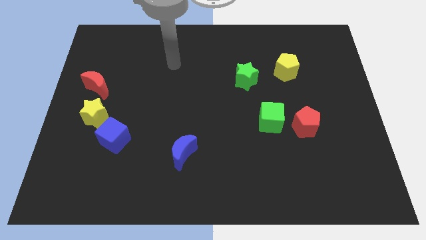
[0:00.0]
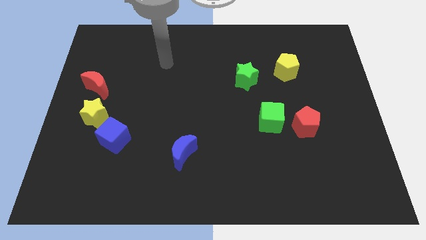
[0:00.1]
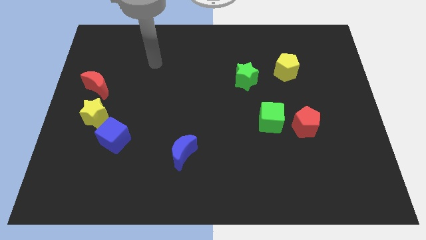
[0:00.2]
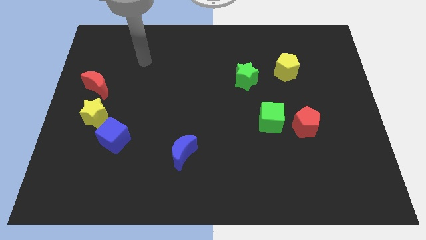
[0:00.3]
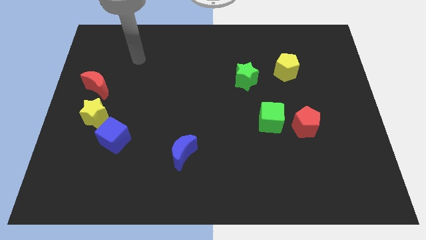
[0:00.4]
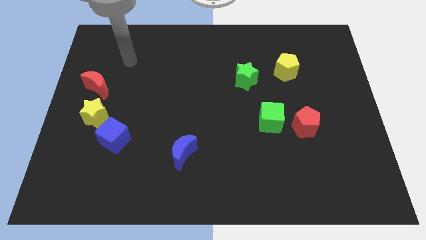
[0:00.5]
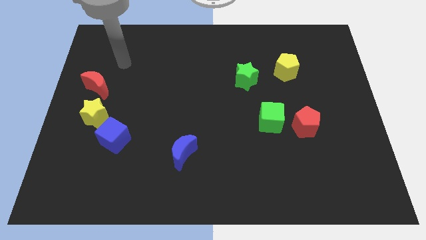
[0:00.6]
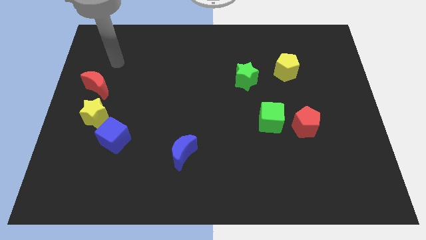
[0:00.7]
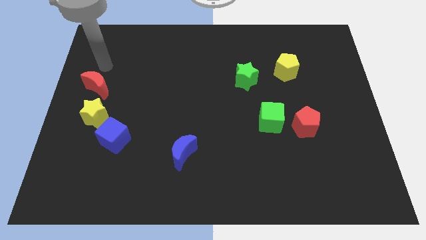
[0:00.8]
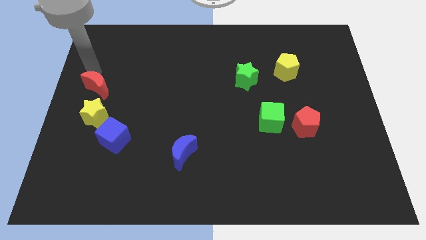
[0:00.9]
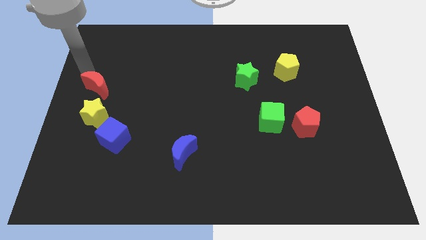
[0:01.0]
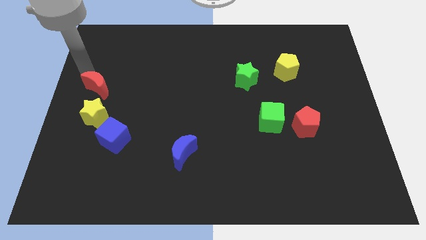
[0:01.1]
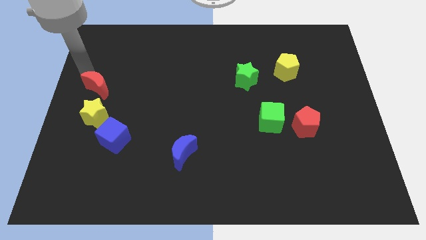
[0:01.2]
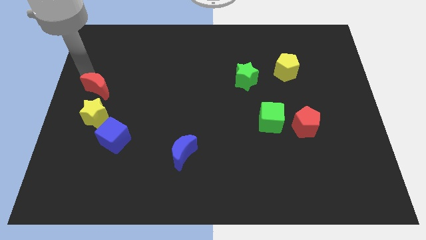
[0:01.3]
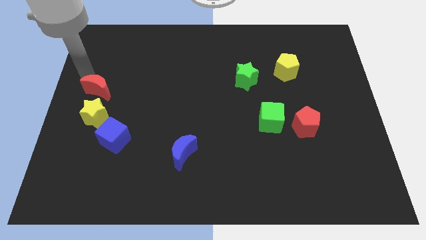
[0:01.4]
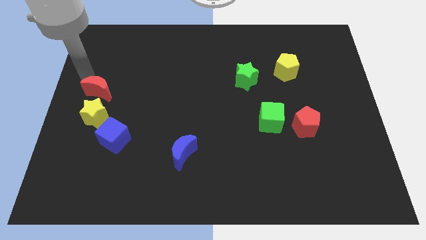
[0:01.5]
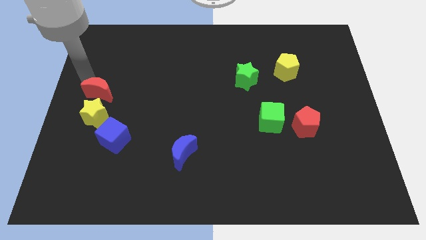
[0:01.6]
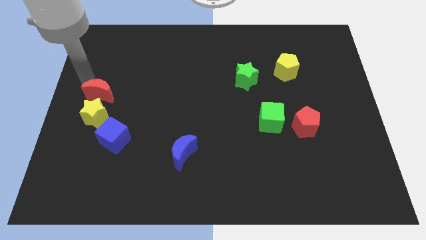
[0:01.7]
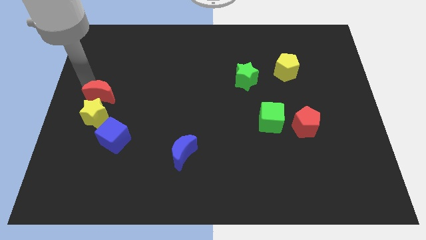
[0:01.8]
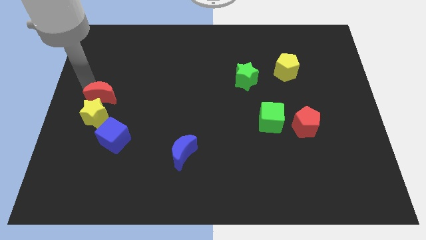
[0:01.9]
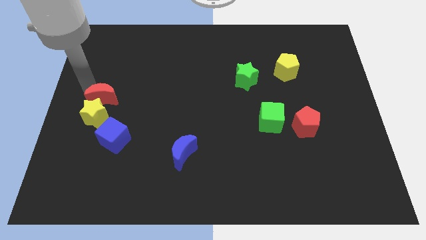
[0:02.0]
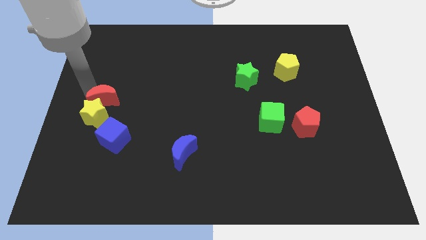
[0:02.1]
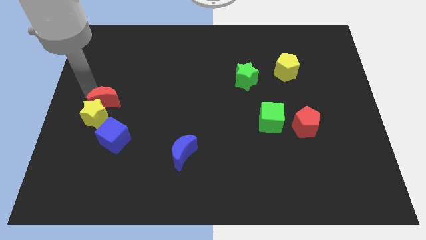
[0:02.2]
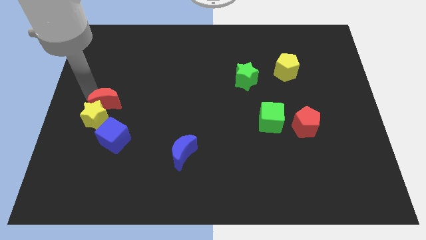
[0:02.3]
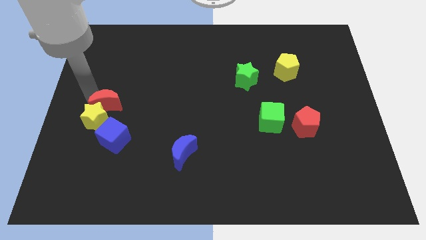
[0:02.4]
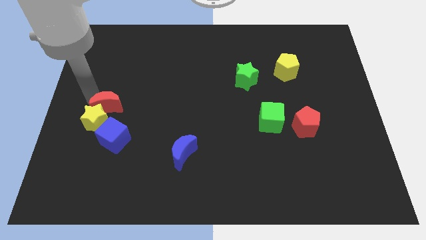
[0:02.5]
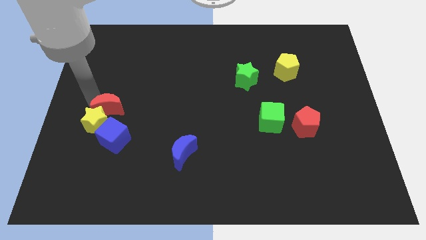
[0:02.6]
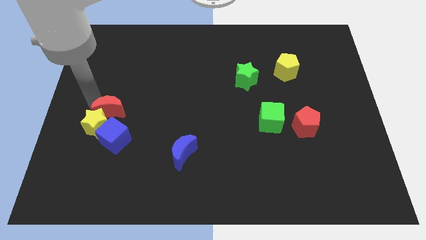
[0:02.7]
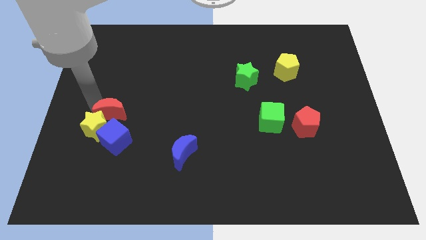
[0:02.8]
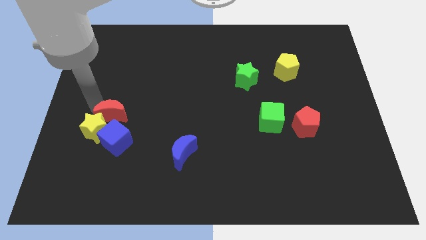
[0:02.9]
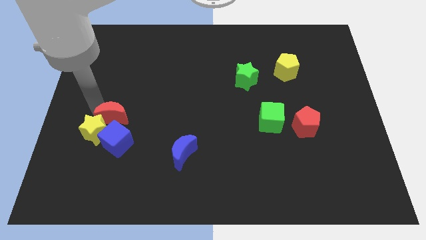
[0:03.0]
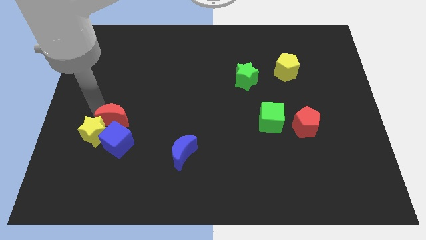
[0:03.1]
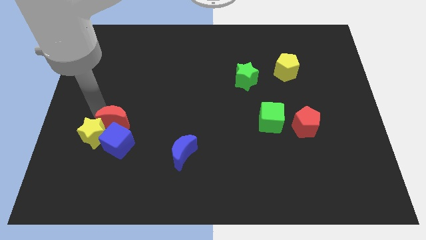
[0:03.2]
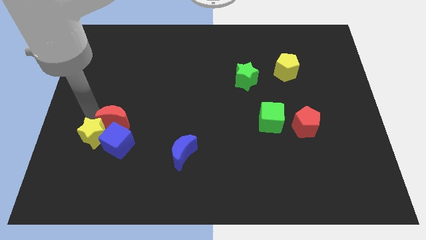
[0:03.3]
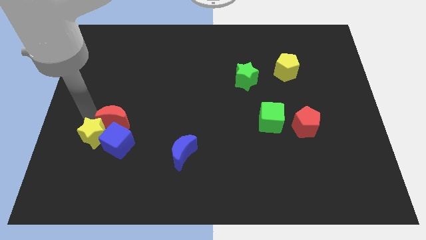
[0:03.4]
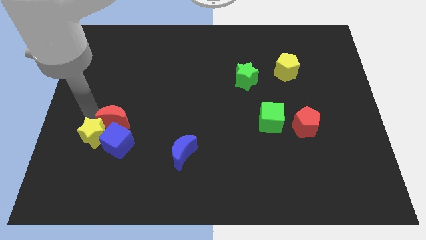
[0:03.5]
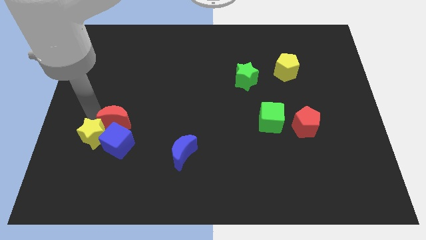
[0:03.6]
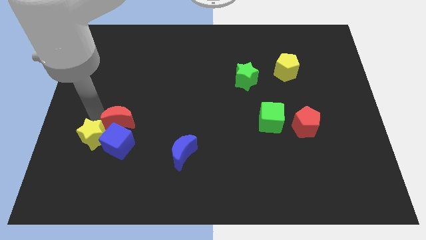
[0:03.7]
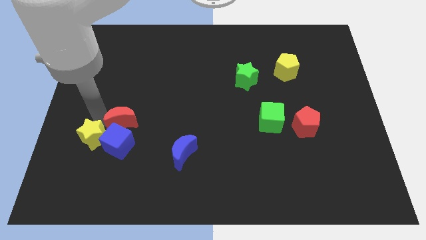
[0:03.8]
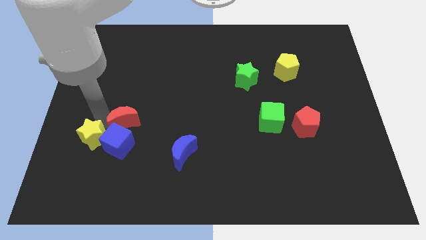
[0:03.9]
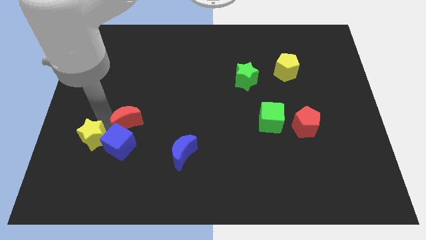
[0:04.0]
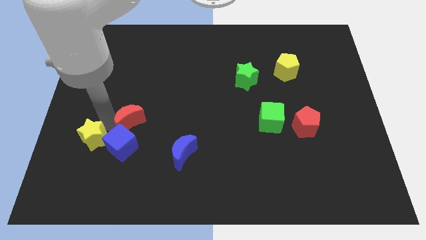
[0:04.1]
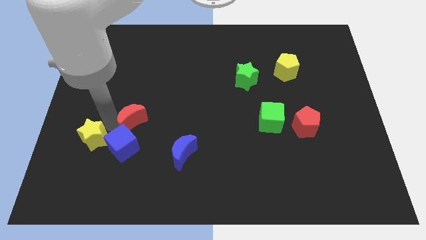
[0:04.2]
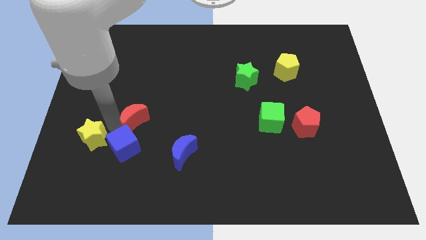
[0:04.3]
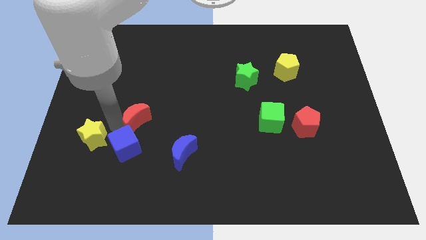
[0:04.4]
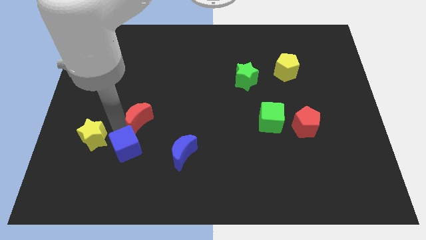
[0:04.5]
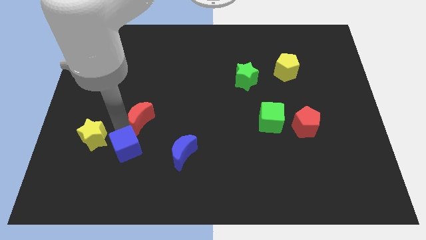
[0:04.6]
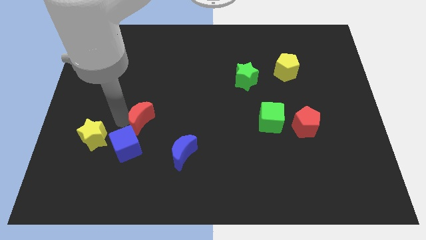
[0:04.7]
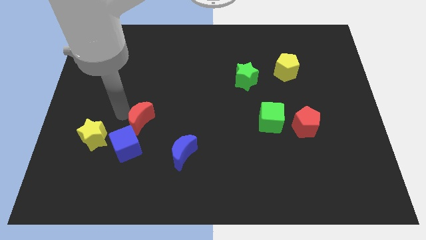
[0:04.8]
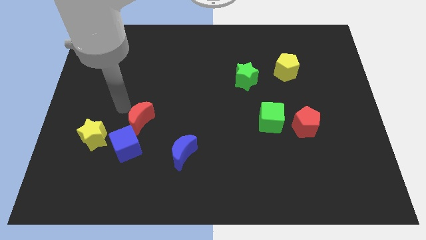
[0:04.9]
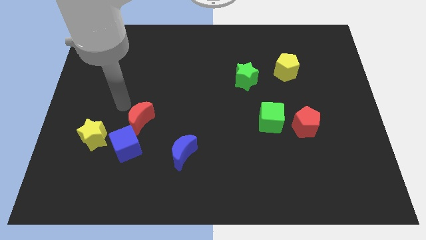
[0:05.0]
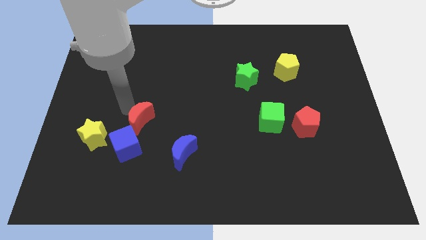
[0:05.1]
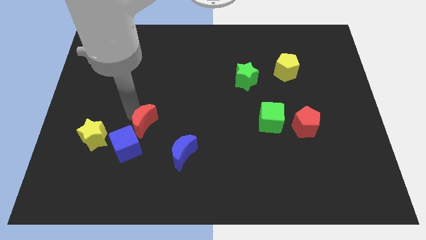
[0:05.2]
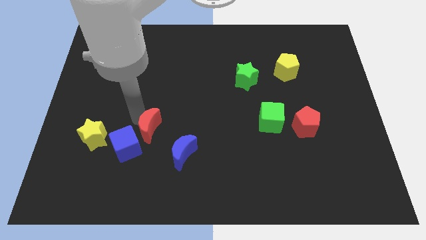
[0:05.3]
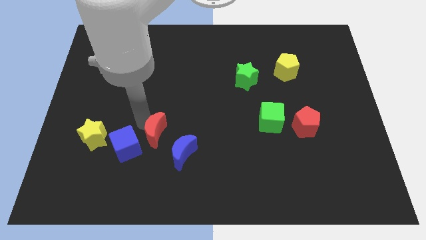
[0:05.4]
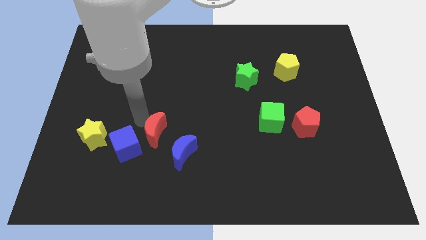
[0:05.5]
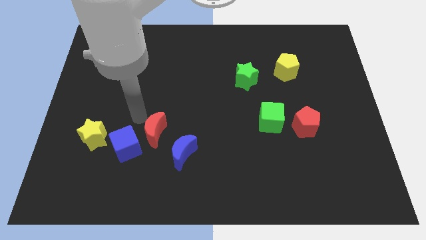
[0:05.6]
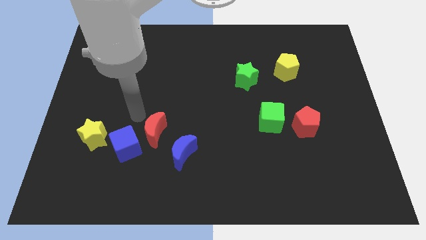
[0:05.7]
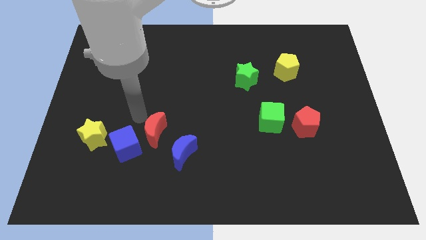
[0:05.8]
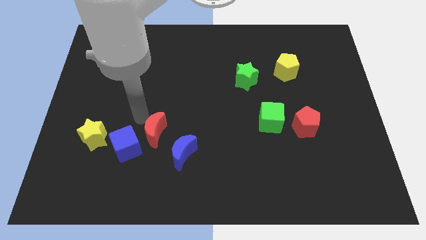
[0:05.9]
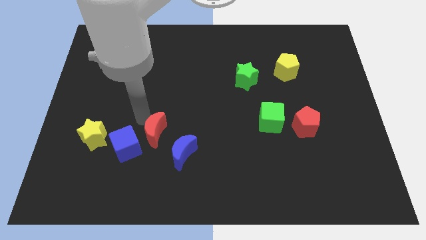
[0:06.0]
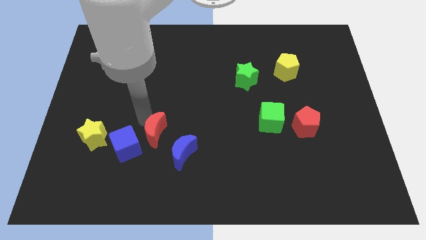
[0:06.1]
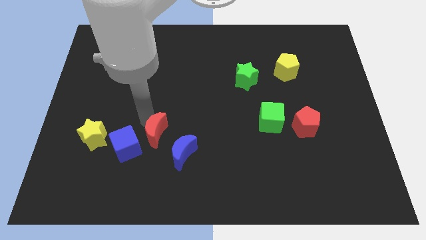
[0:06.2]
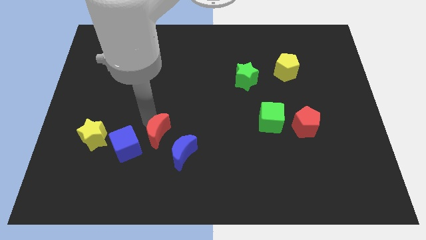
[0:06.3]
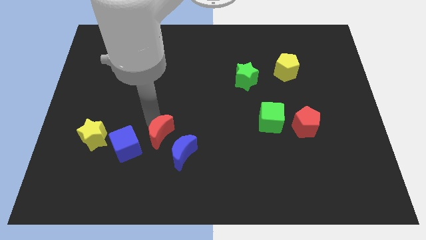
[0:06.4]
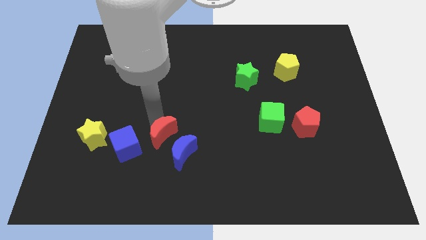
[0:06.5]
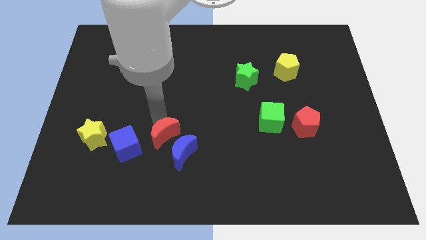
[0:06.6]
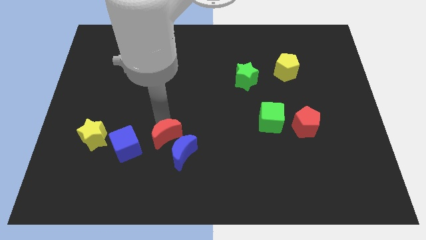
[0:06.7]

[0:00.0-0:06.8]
slide the red moon towards the blue moon
